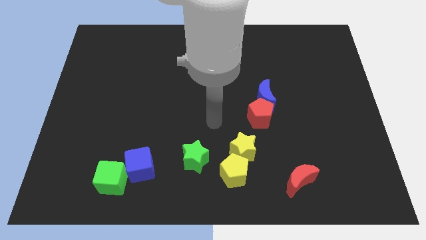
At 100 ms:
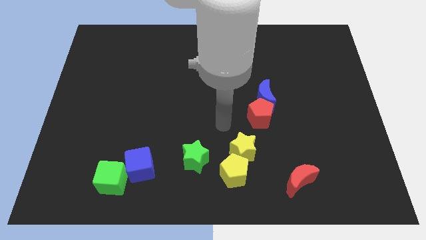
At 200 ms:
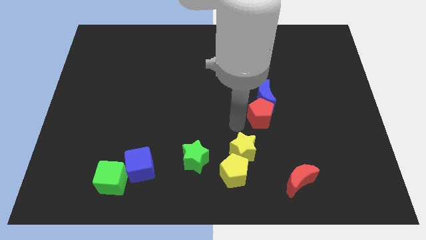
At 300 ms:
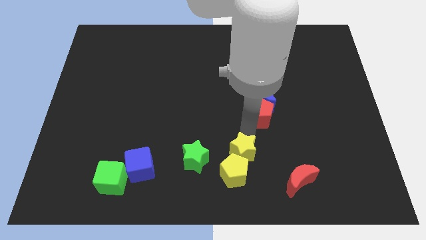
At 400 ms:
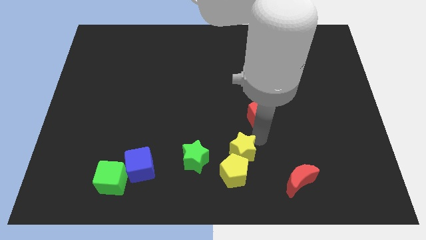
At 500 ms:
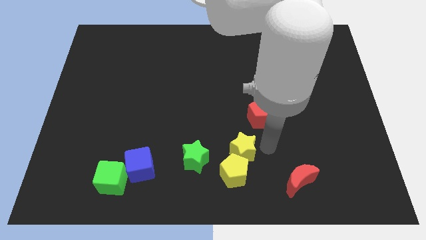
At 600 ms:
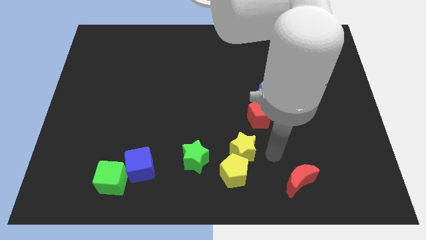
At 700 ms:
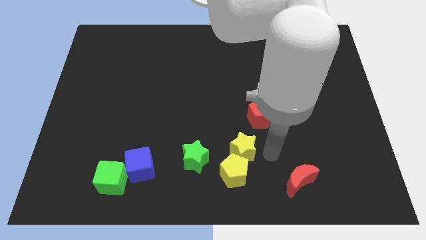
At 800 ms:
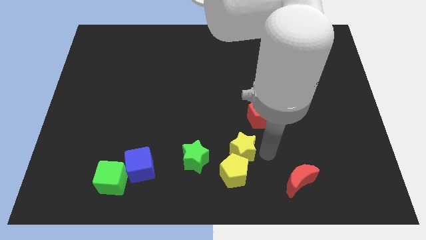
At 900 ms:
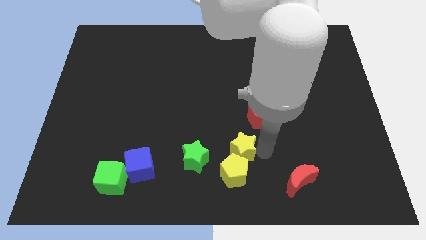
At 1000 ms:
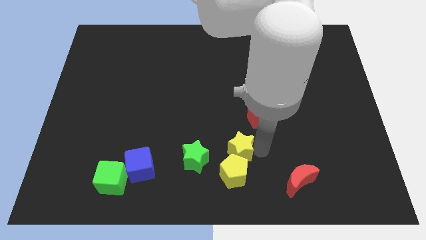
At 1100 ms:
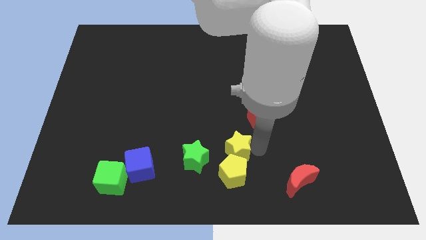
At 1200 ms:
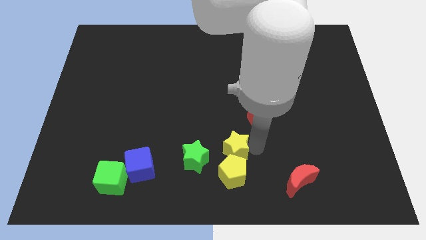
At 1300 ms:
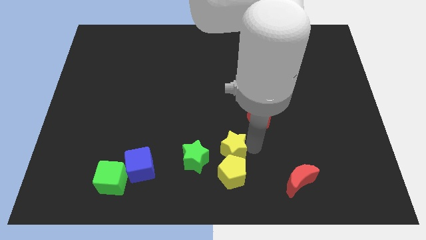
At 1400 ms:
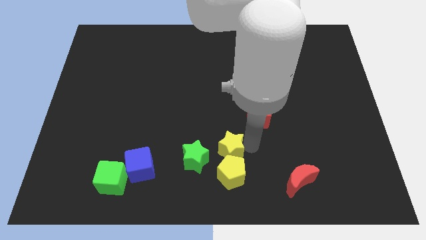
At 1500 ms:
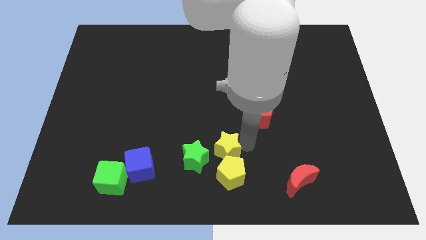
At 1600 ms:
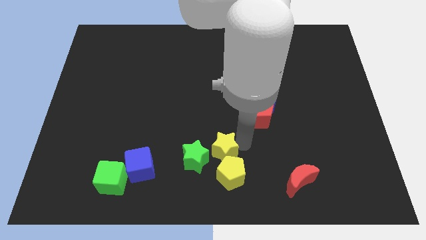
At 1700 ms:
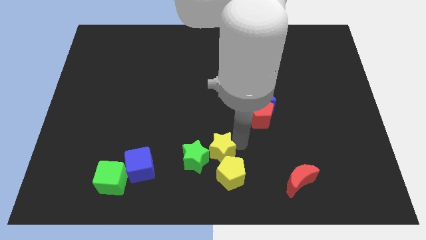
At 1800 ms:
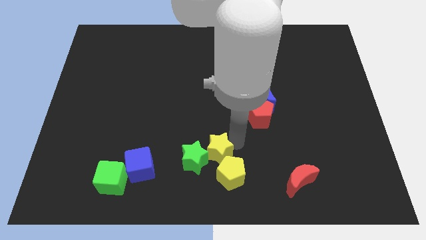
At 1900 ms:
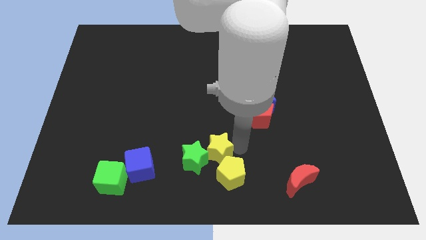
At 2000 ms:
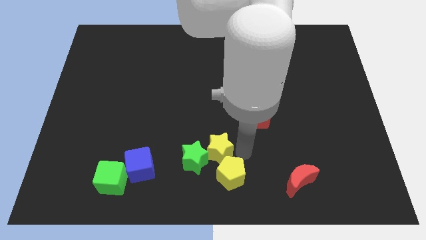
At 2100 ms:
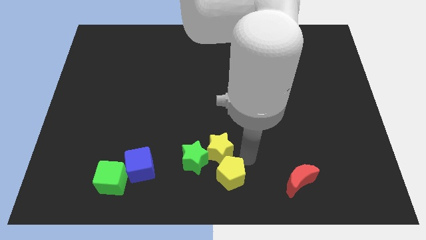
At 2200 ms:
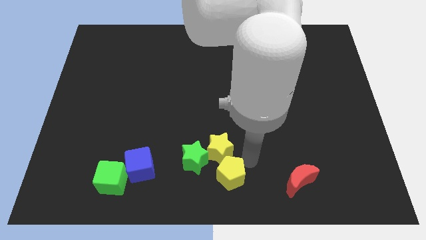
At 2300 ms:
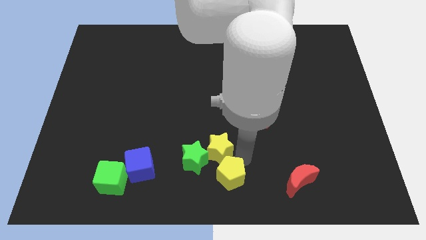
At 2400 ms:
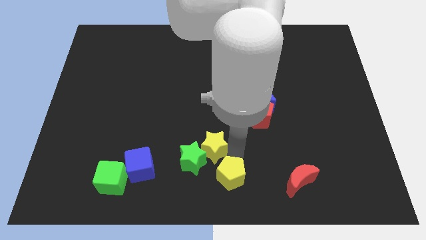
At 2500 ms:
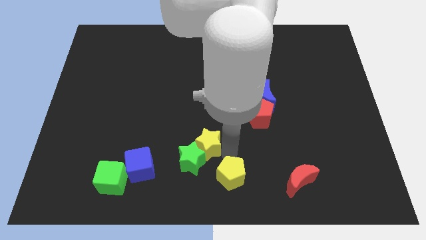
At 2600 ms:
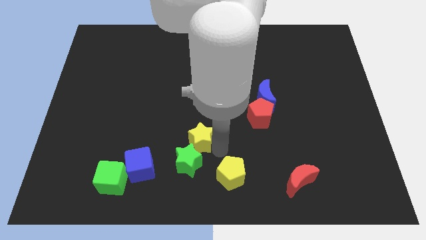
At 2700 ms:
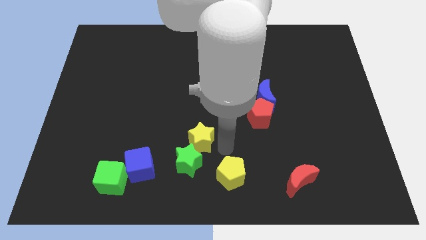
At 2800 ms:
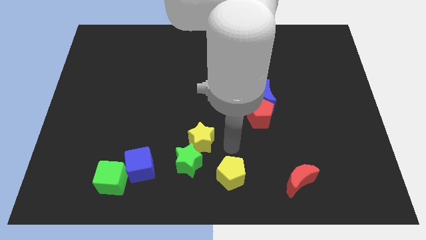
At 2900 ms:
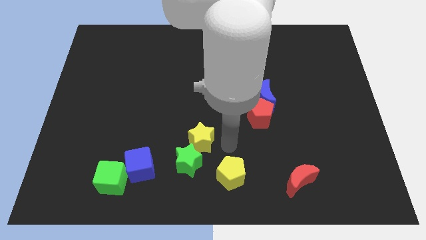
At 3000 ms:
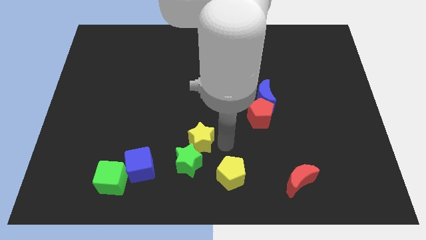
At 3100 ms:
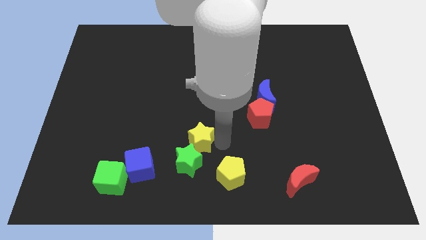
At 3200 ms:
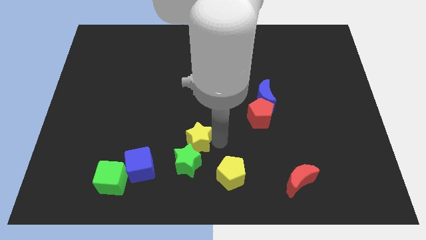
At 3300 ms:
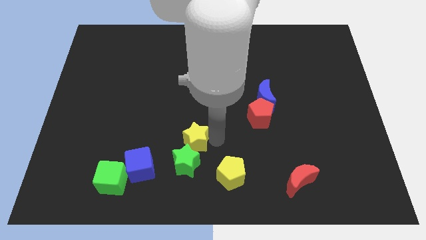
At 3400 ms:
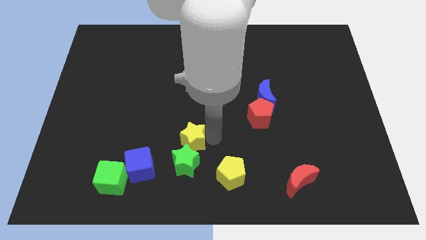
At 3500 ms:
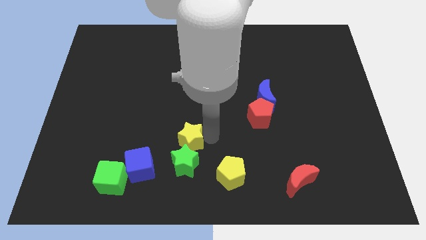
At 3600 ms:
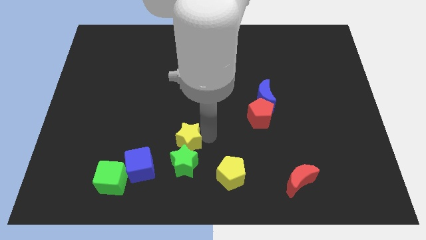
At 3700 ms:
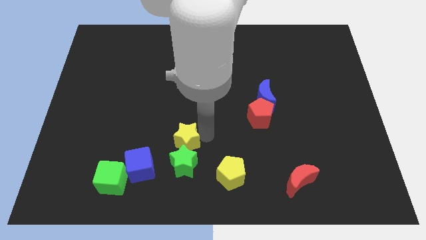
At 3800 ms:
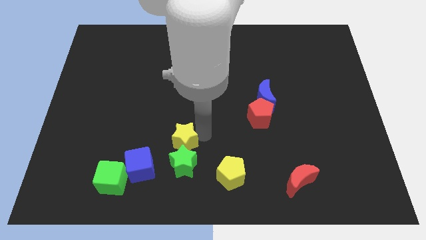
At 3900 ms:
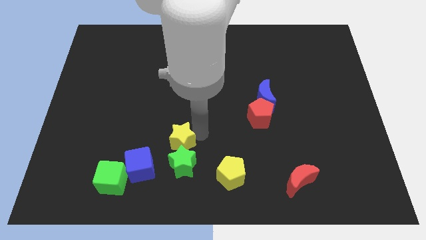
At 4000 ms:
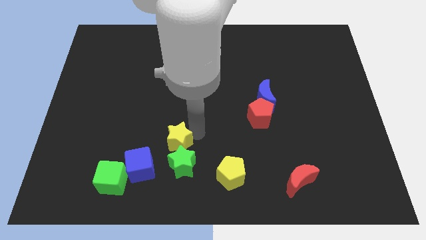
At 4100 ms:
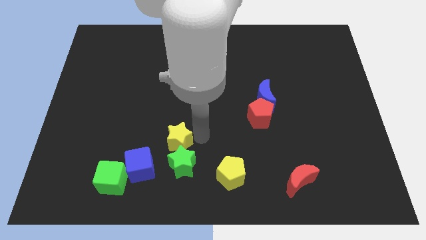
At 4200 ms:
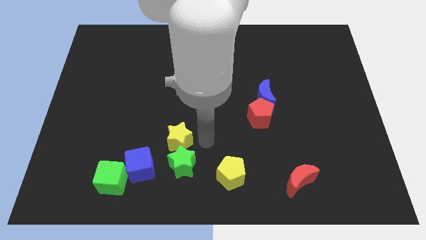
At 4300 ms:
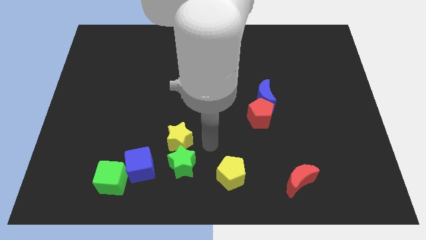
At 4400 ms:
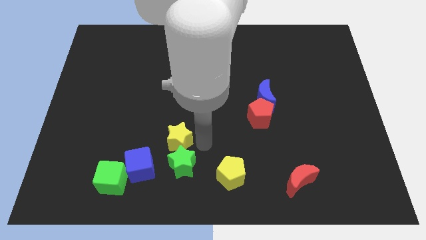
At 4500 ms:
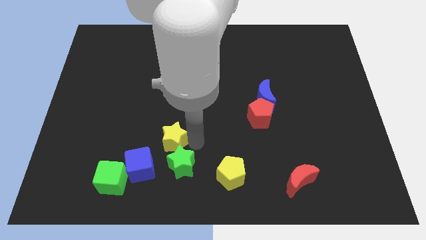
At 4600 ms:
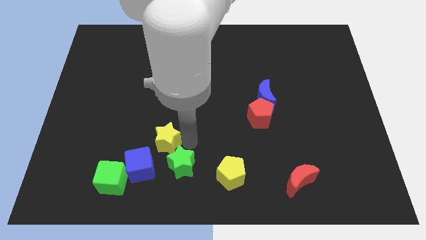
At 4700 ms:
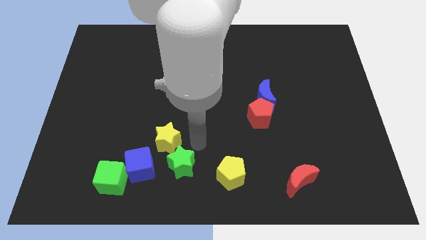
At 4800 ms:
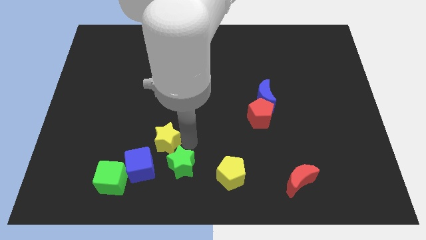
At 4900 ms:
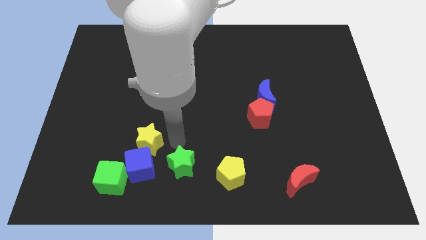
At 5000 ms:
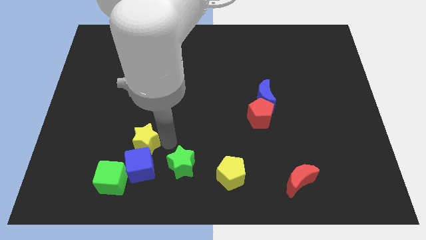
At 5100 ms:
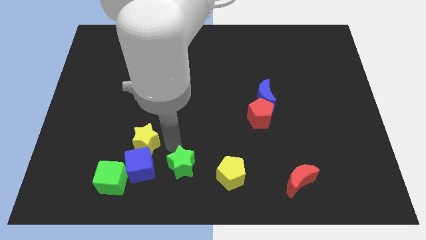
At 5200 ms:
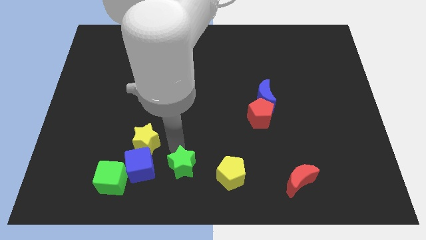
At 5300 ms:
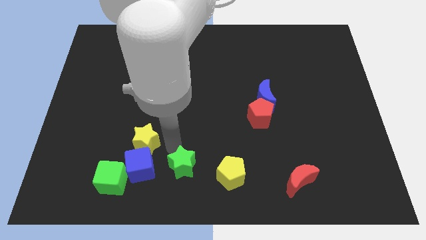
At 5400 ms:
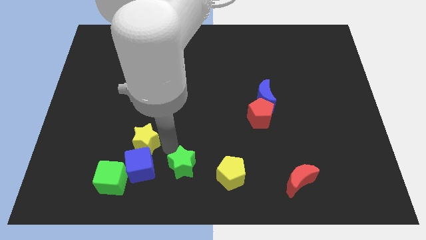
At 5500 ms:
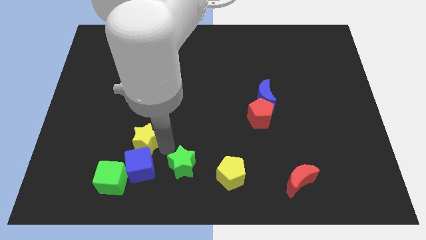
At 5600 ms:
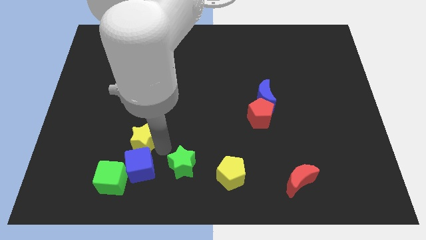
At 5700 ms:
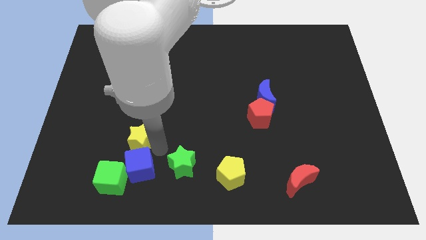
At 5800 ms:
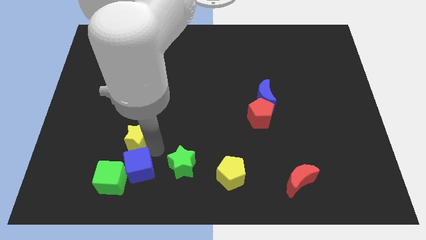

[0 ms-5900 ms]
push the yellow star to the top of the green cube

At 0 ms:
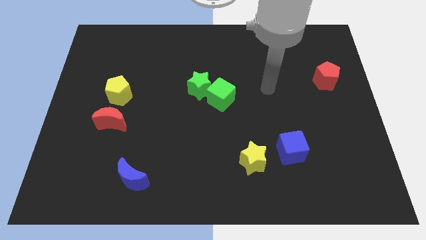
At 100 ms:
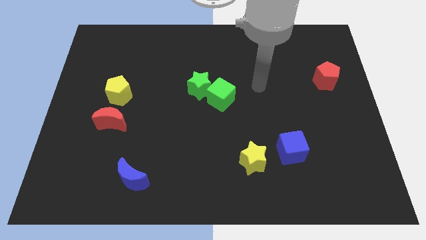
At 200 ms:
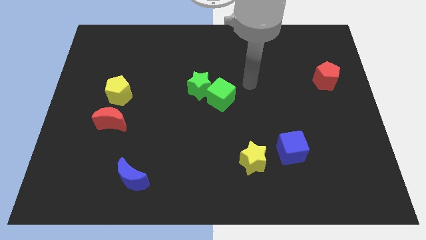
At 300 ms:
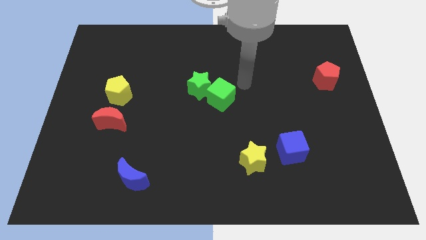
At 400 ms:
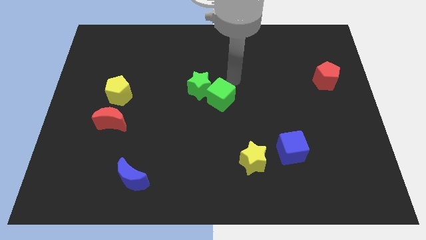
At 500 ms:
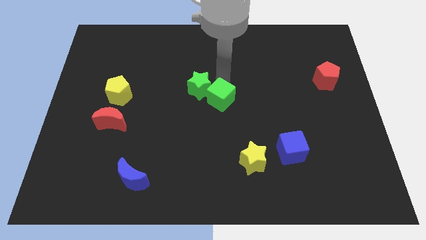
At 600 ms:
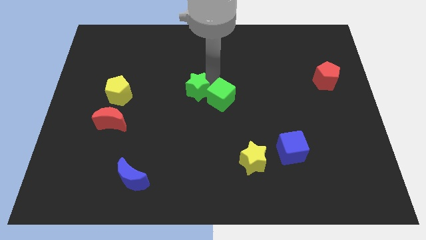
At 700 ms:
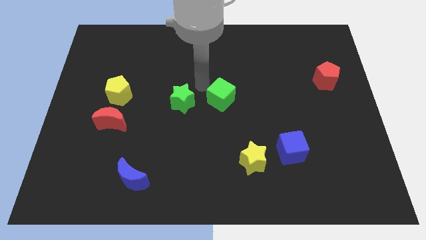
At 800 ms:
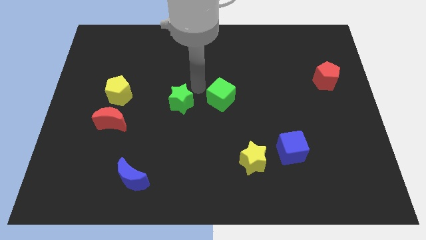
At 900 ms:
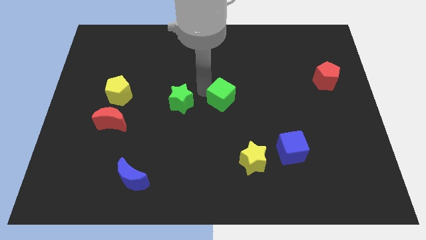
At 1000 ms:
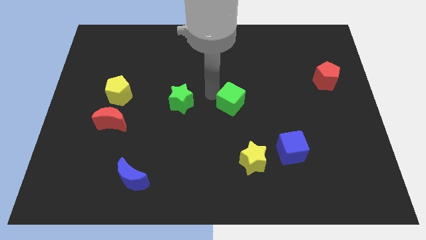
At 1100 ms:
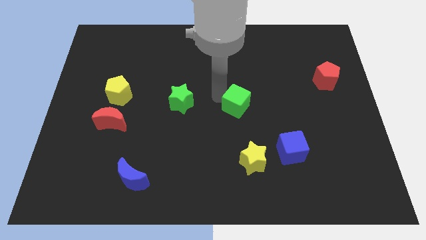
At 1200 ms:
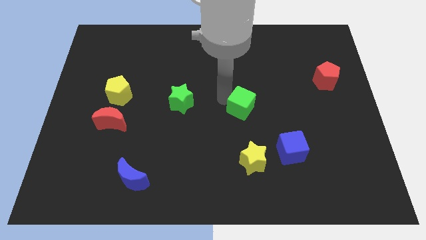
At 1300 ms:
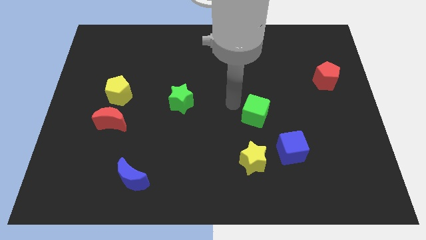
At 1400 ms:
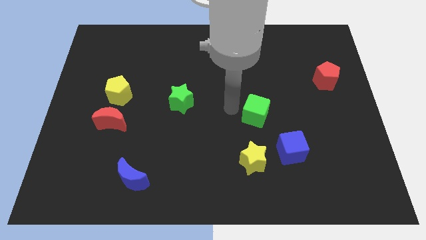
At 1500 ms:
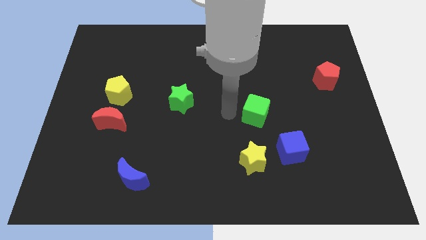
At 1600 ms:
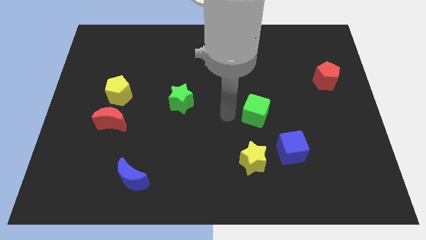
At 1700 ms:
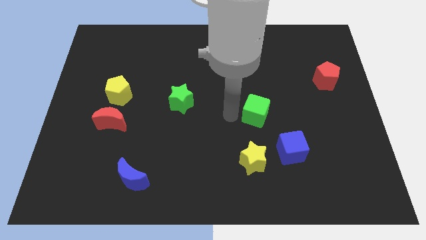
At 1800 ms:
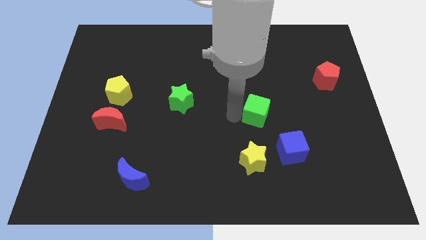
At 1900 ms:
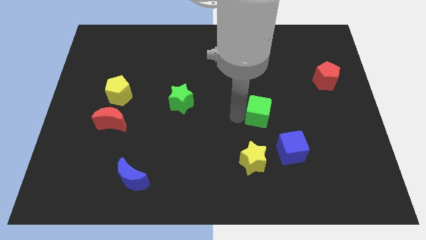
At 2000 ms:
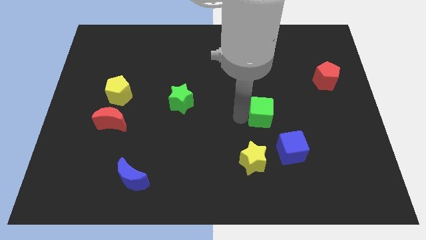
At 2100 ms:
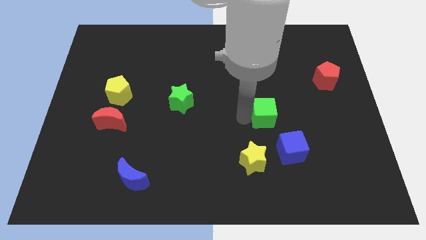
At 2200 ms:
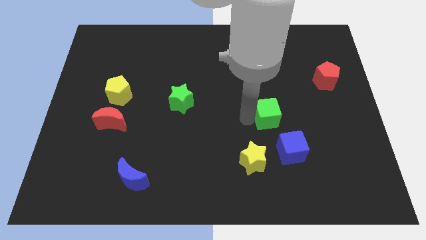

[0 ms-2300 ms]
move the green cube above the blue cube
